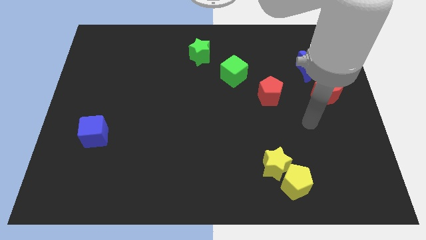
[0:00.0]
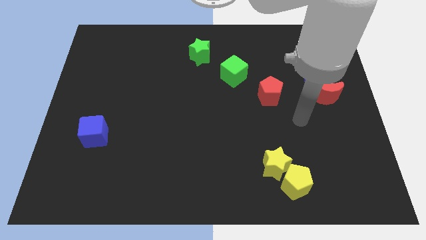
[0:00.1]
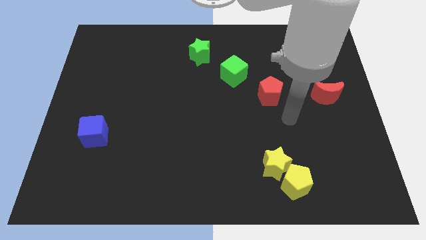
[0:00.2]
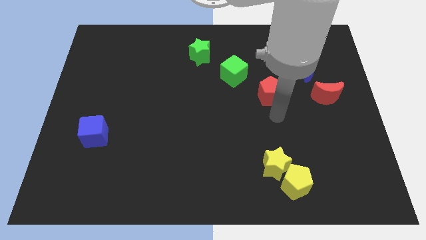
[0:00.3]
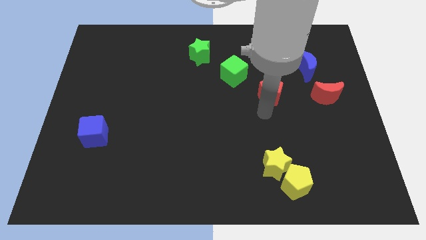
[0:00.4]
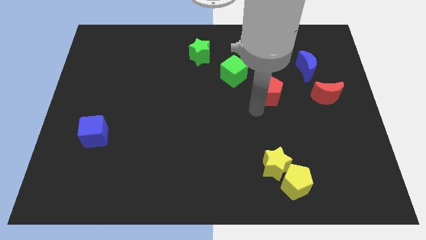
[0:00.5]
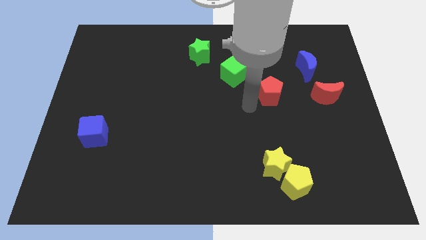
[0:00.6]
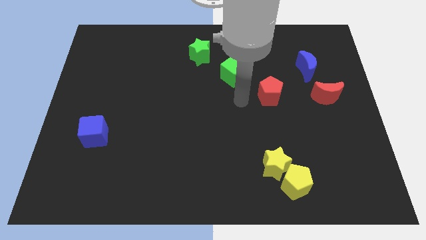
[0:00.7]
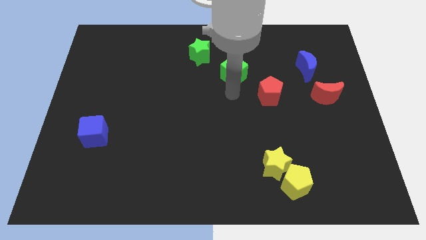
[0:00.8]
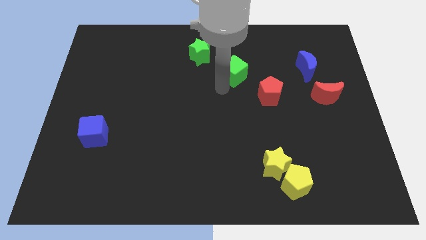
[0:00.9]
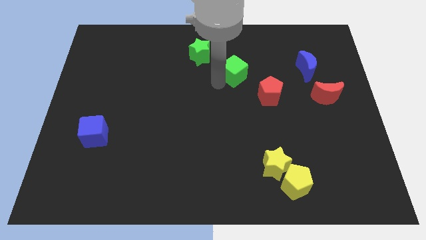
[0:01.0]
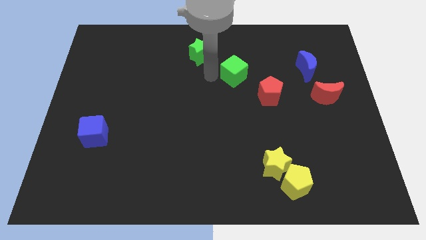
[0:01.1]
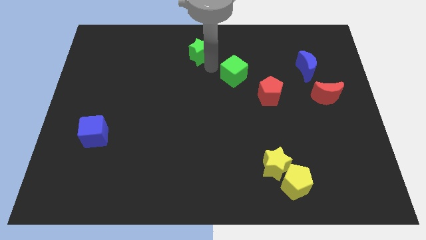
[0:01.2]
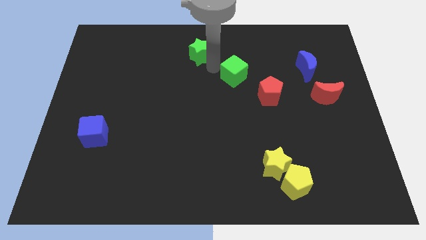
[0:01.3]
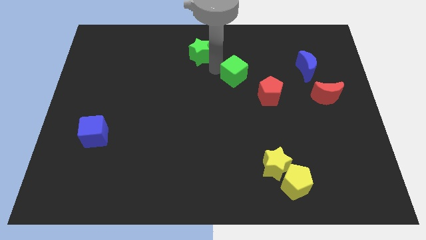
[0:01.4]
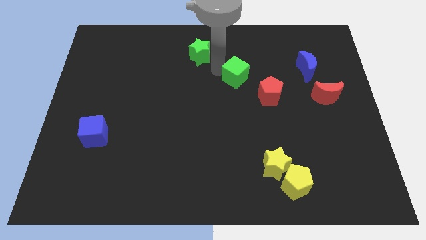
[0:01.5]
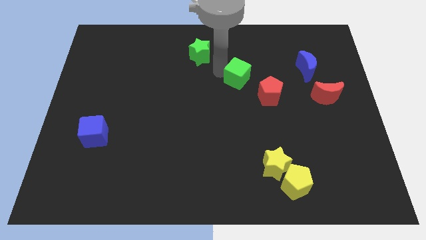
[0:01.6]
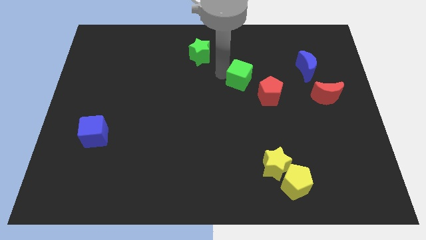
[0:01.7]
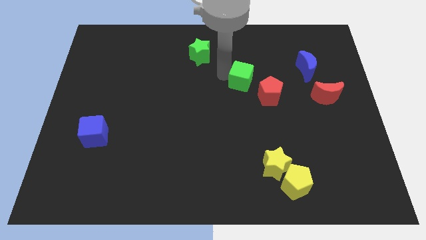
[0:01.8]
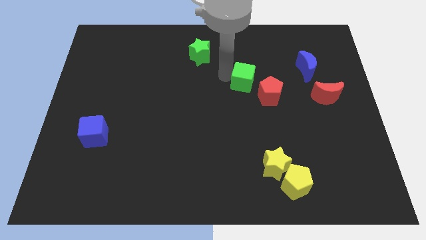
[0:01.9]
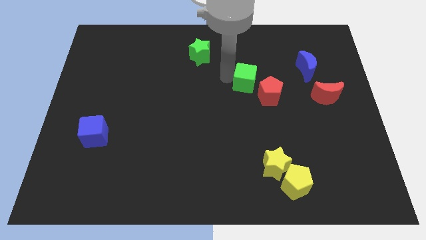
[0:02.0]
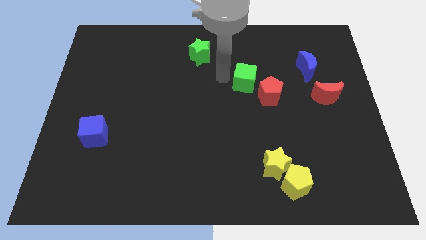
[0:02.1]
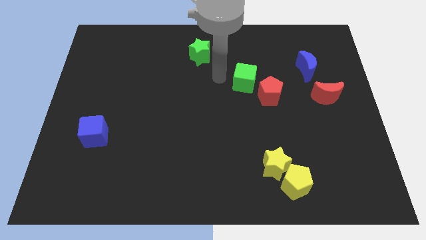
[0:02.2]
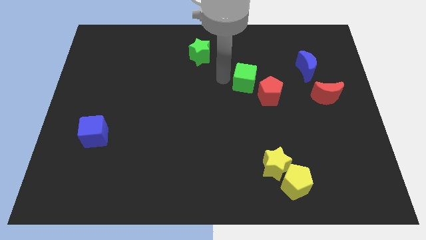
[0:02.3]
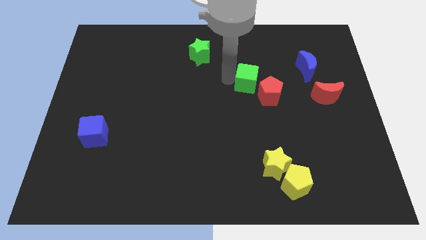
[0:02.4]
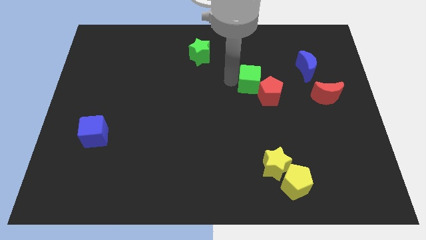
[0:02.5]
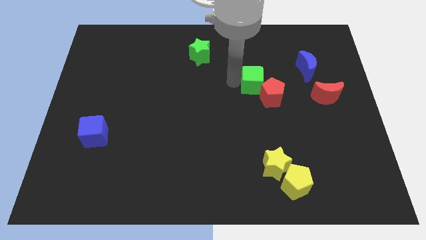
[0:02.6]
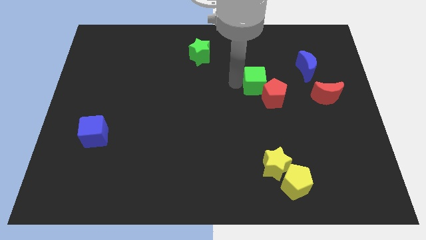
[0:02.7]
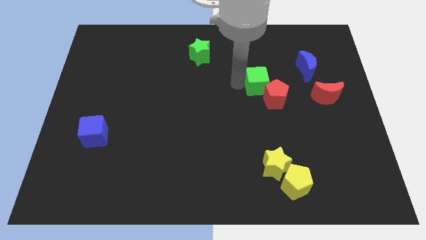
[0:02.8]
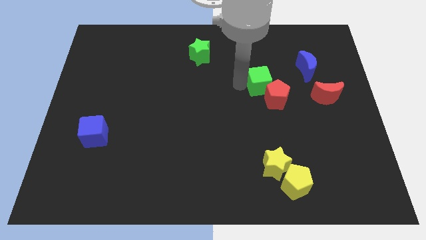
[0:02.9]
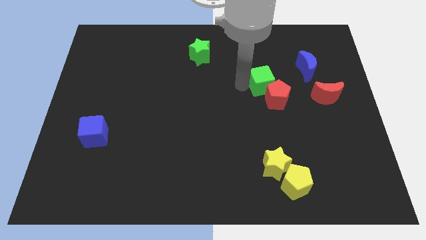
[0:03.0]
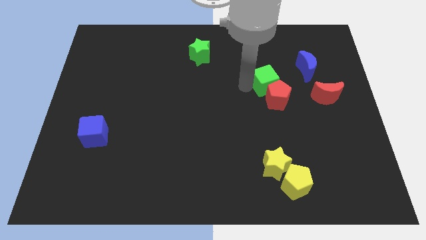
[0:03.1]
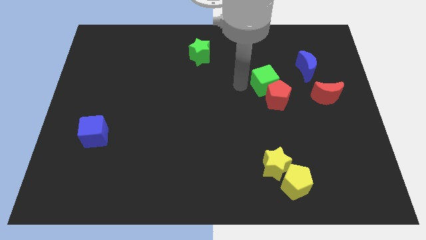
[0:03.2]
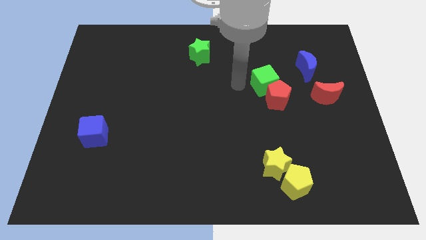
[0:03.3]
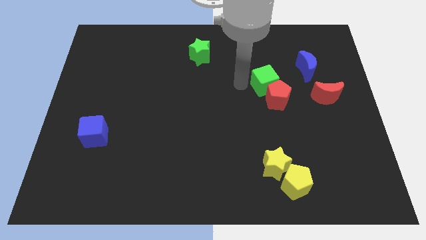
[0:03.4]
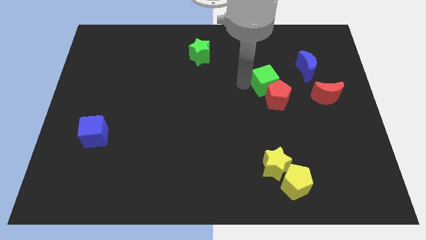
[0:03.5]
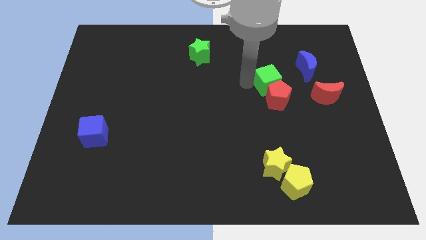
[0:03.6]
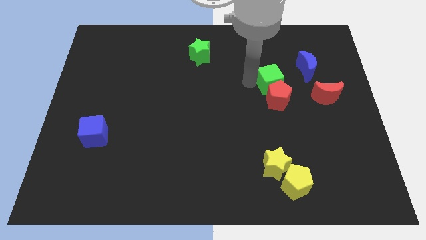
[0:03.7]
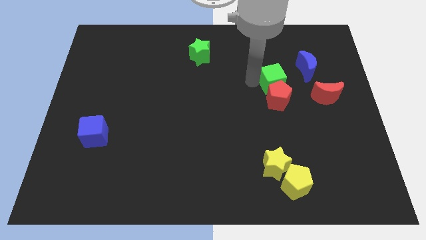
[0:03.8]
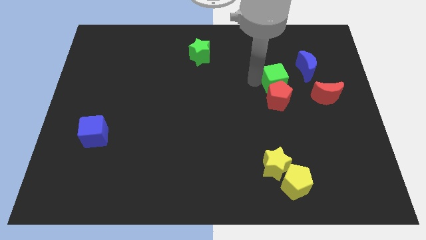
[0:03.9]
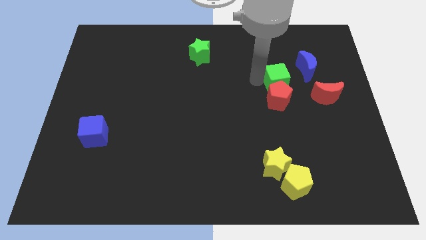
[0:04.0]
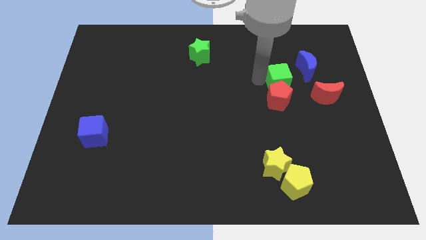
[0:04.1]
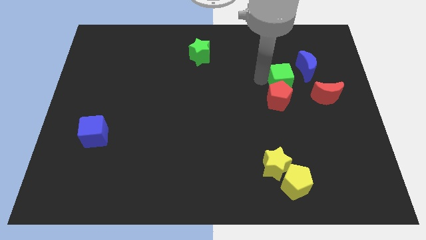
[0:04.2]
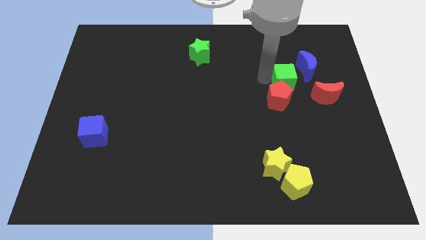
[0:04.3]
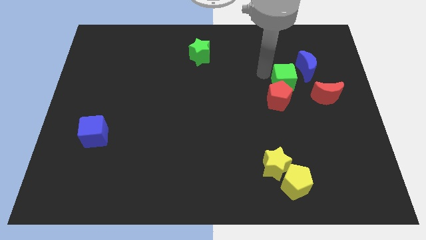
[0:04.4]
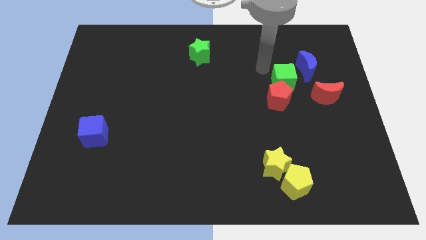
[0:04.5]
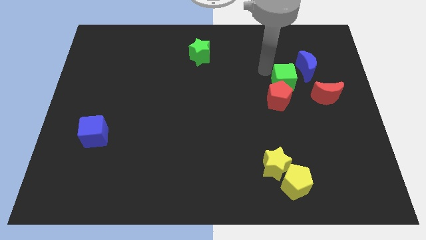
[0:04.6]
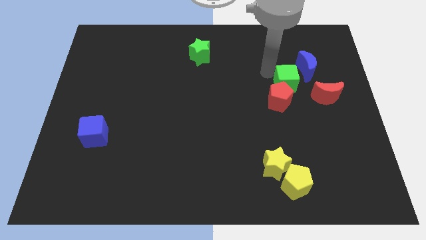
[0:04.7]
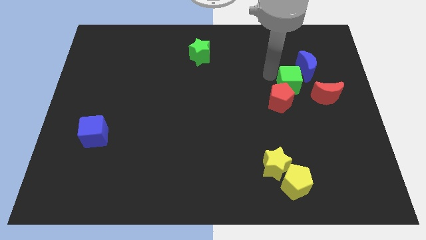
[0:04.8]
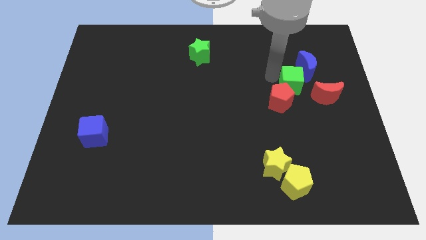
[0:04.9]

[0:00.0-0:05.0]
slide the green cube below the blue moon

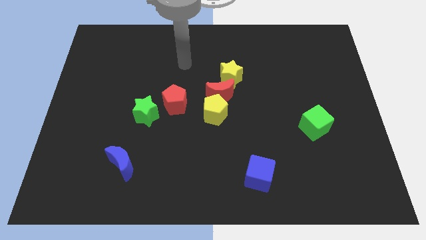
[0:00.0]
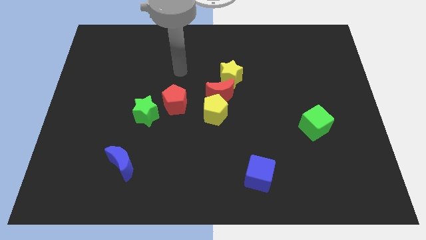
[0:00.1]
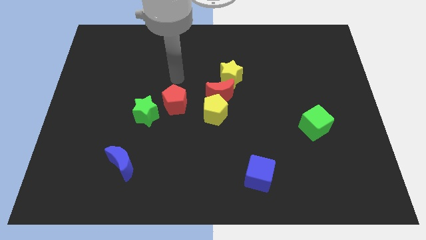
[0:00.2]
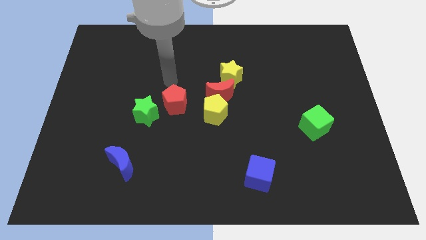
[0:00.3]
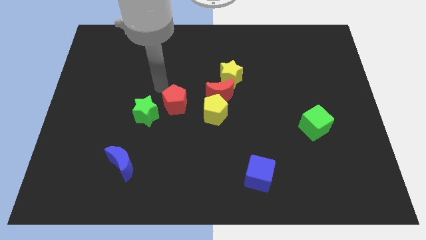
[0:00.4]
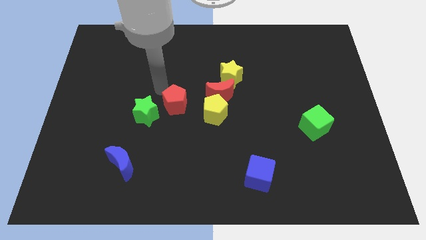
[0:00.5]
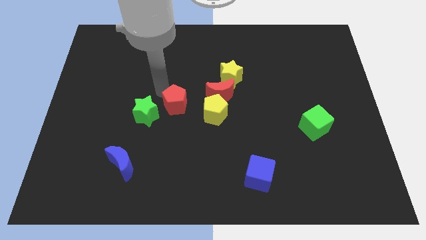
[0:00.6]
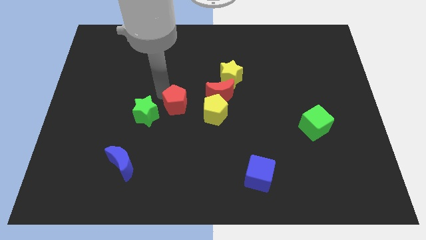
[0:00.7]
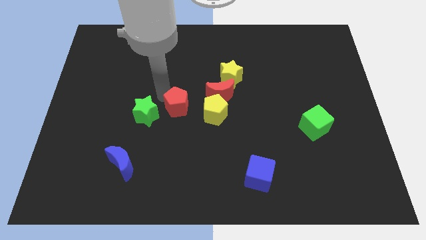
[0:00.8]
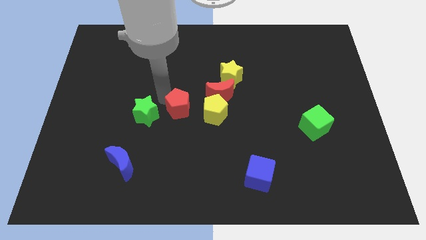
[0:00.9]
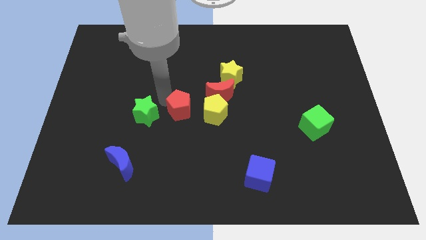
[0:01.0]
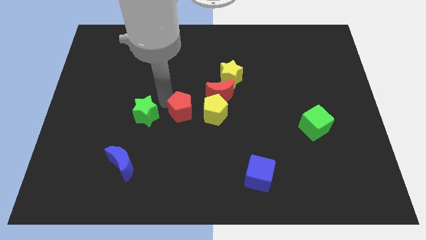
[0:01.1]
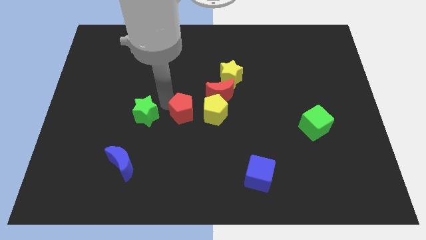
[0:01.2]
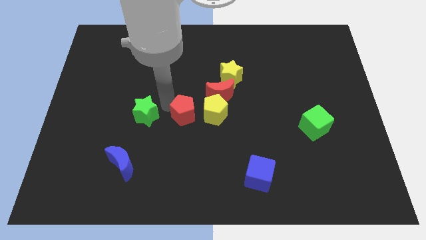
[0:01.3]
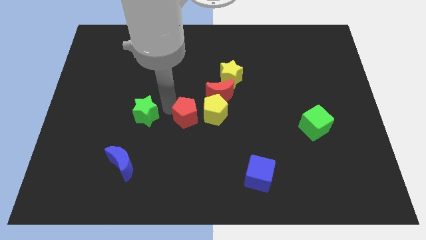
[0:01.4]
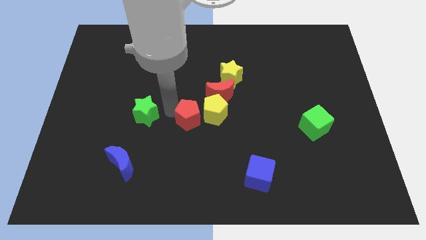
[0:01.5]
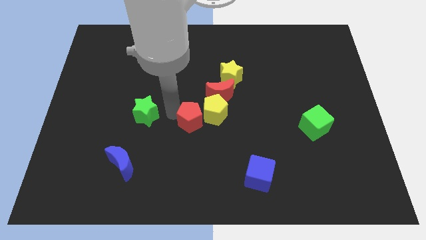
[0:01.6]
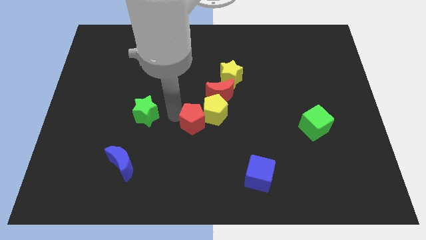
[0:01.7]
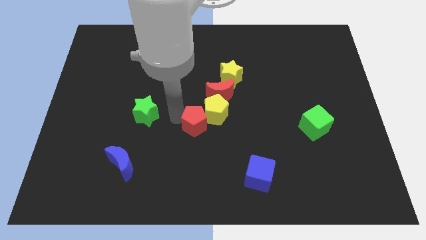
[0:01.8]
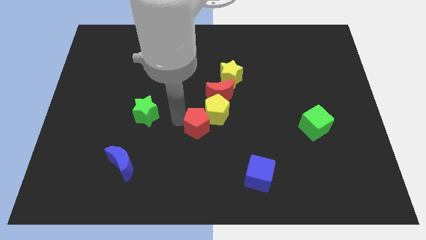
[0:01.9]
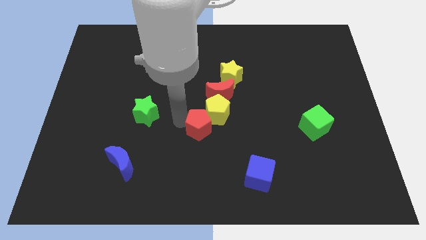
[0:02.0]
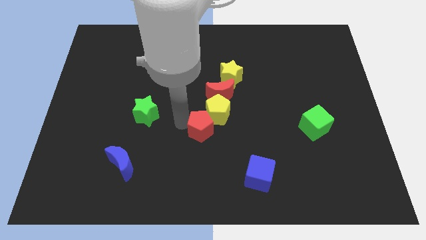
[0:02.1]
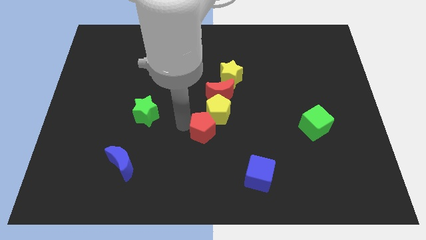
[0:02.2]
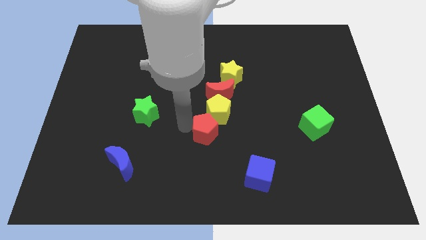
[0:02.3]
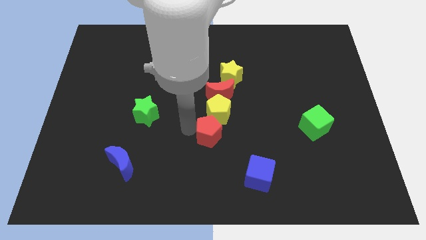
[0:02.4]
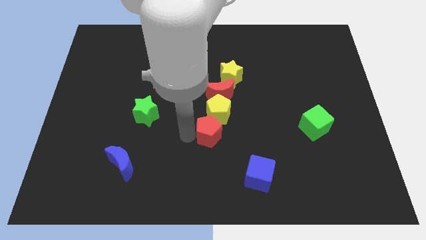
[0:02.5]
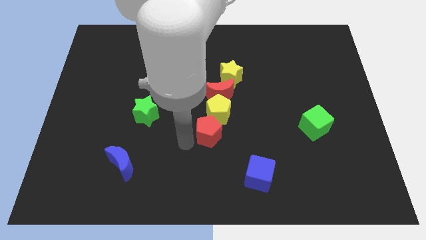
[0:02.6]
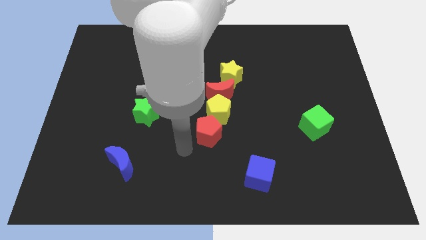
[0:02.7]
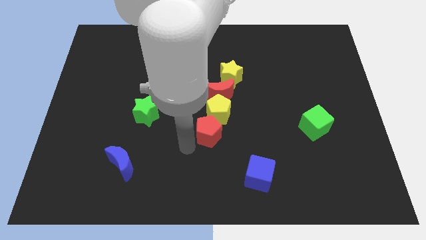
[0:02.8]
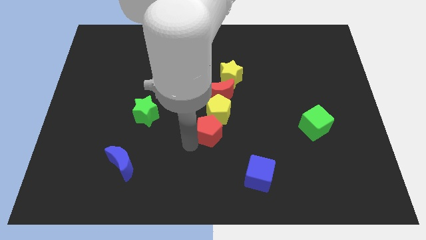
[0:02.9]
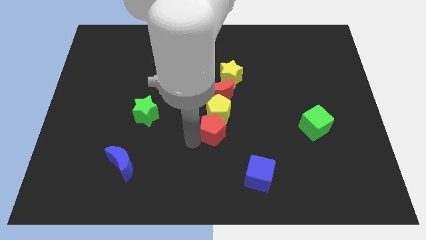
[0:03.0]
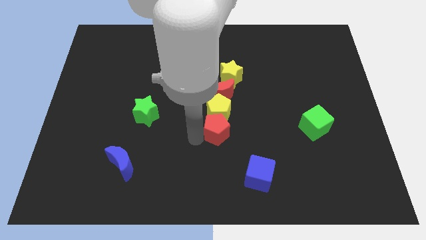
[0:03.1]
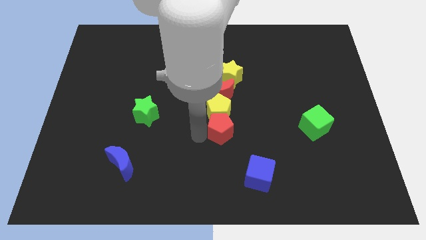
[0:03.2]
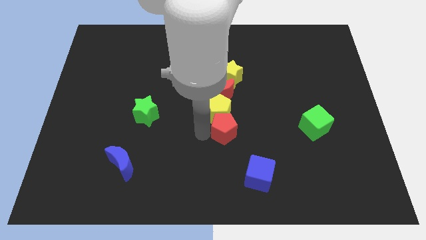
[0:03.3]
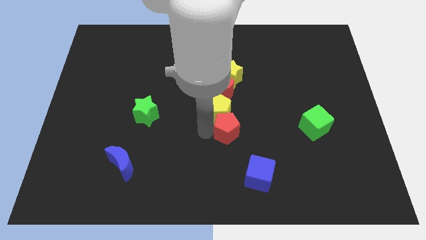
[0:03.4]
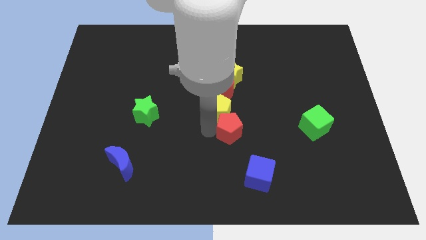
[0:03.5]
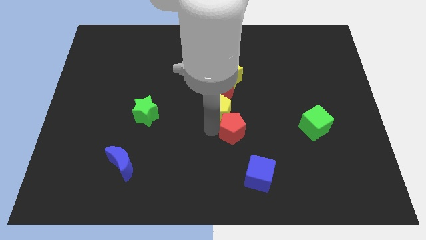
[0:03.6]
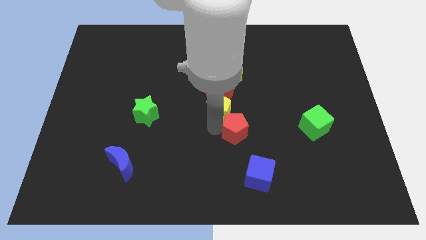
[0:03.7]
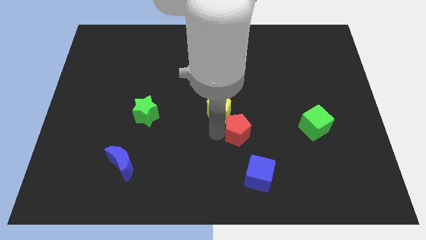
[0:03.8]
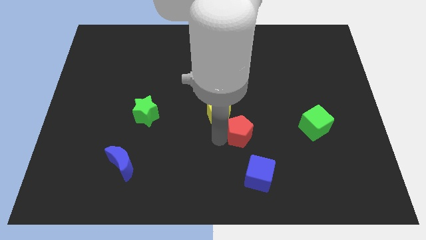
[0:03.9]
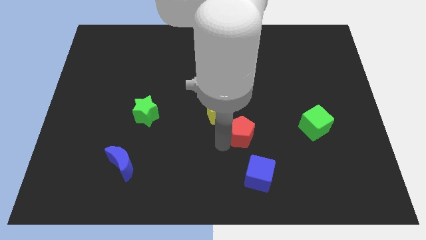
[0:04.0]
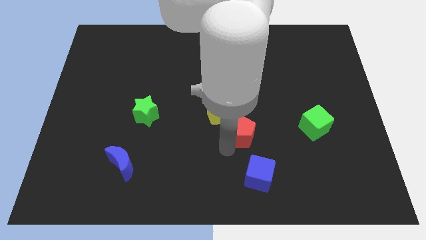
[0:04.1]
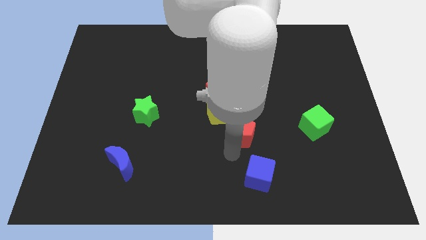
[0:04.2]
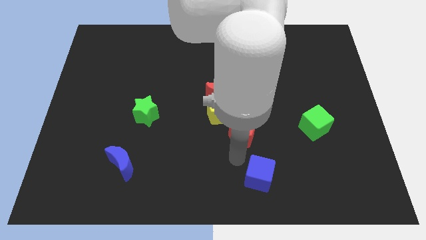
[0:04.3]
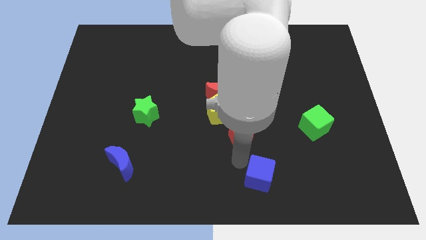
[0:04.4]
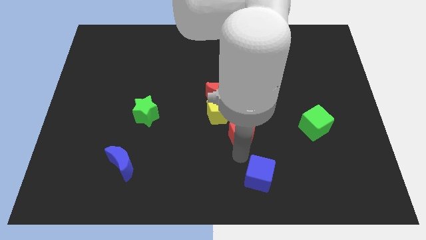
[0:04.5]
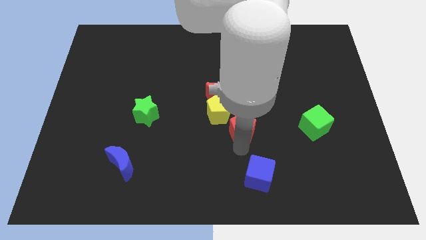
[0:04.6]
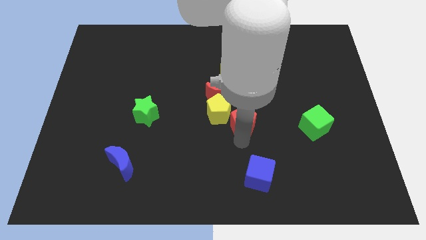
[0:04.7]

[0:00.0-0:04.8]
put the red pentagon to the bottom right side of the red moon
